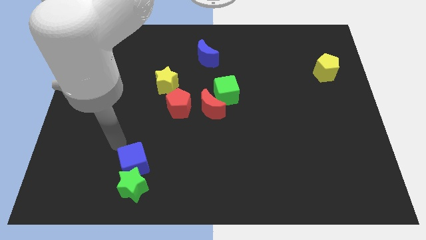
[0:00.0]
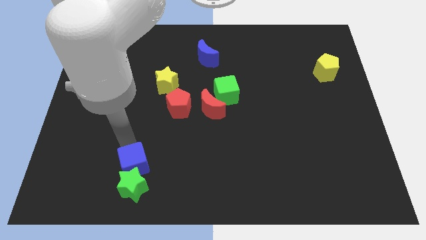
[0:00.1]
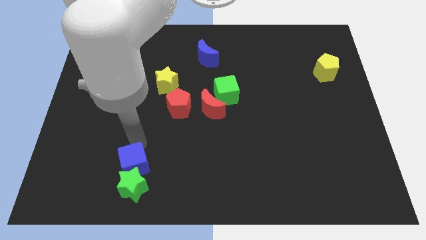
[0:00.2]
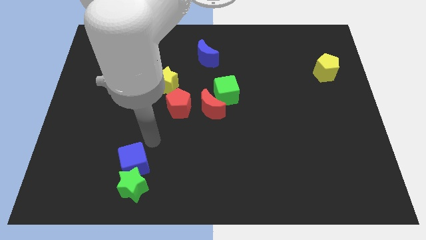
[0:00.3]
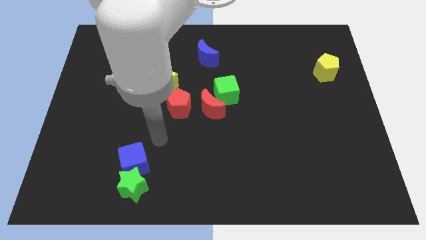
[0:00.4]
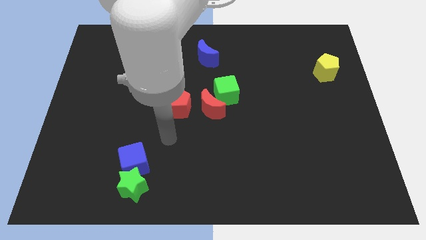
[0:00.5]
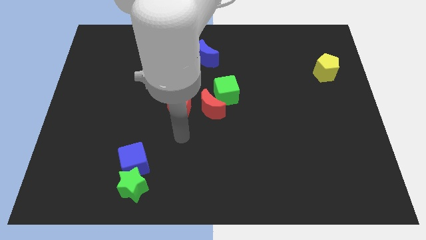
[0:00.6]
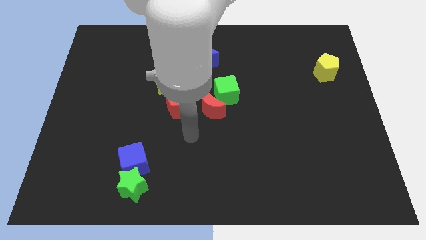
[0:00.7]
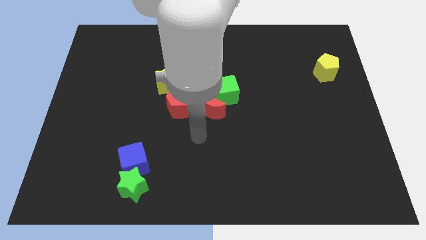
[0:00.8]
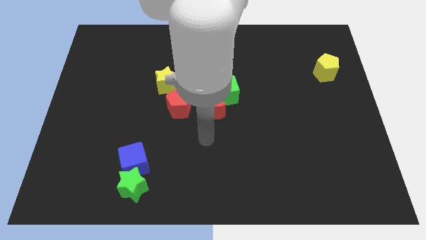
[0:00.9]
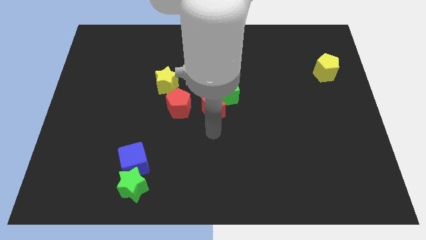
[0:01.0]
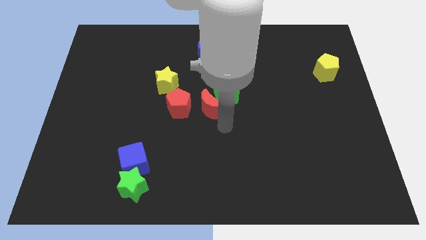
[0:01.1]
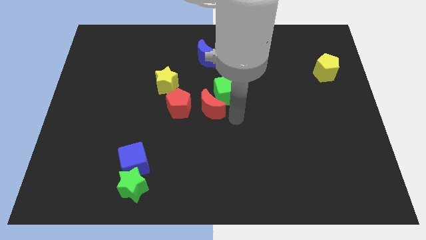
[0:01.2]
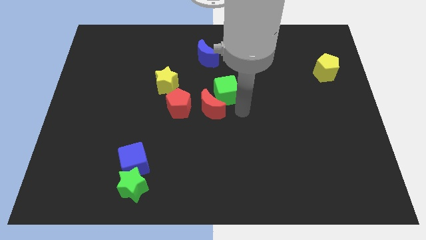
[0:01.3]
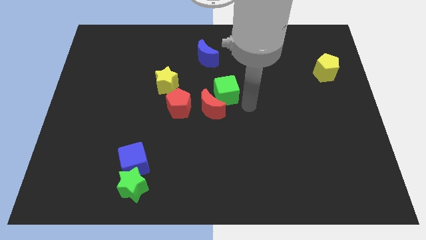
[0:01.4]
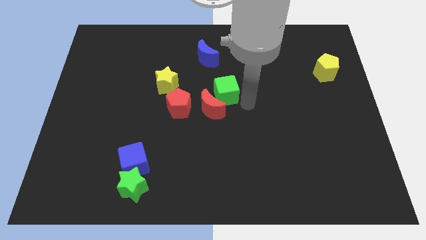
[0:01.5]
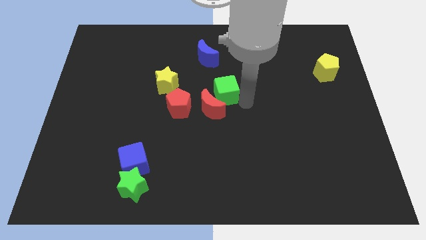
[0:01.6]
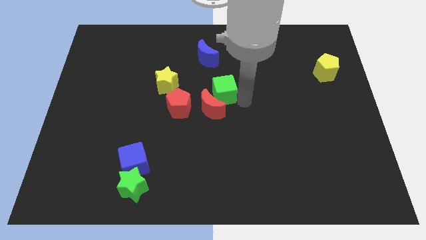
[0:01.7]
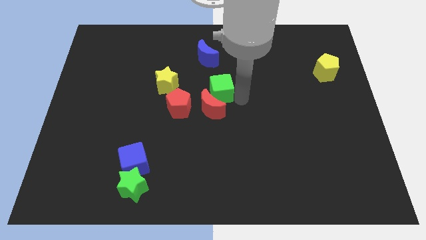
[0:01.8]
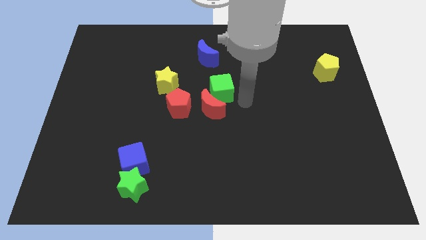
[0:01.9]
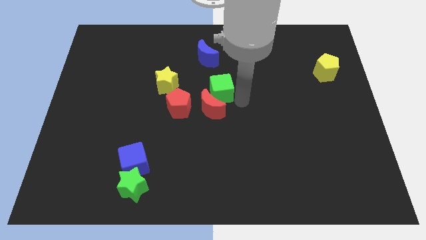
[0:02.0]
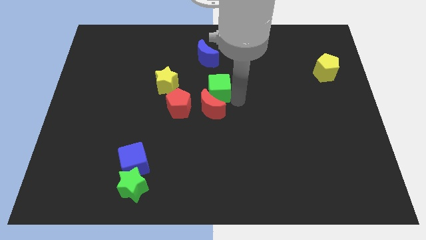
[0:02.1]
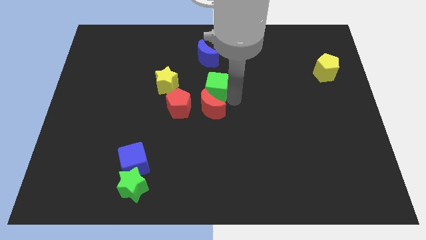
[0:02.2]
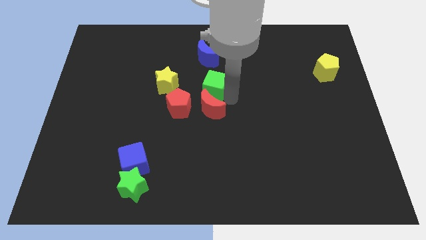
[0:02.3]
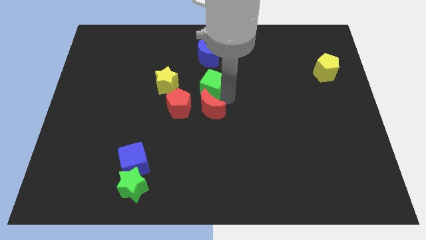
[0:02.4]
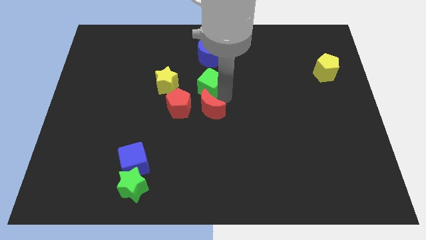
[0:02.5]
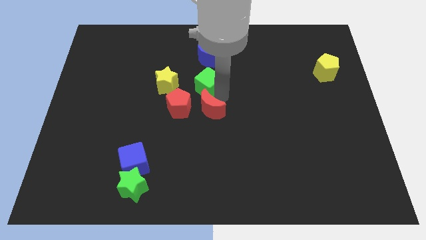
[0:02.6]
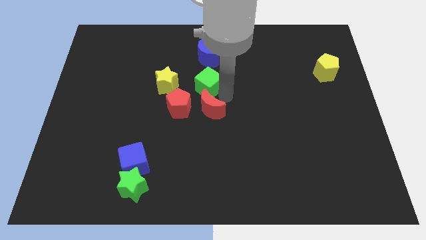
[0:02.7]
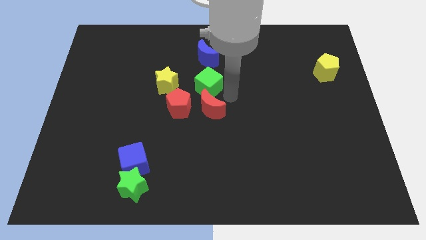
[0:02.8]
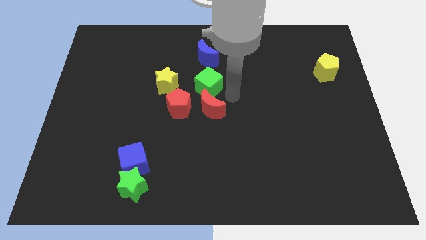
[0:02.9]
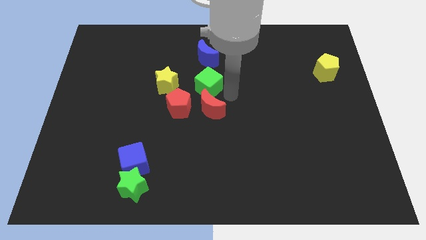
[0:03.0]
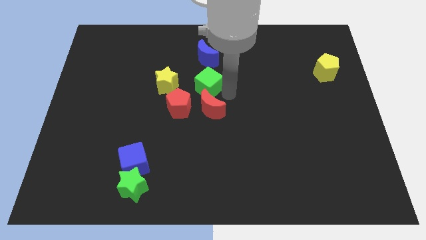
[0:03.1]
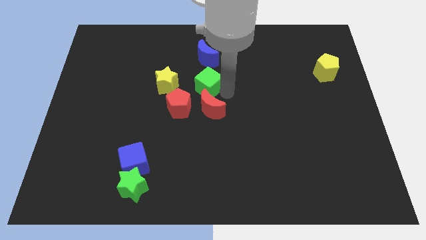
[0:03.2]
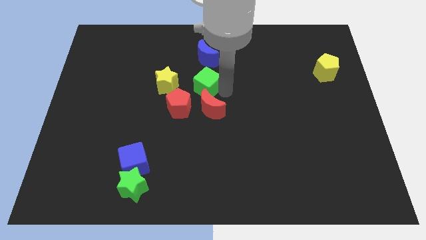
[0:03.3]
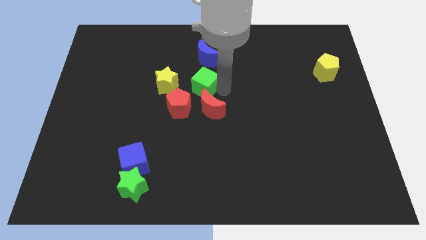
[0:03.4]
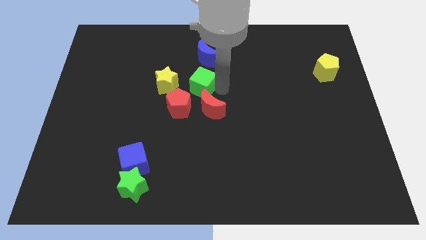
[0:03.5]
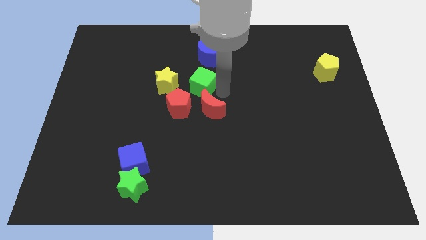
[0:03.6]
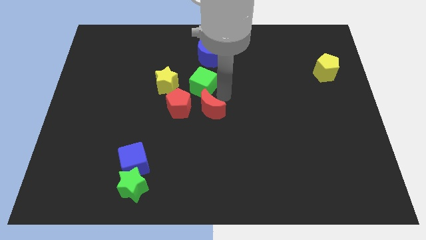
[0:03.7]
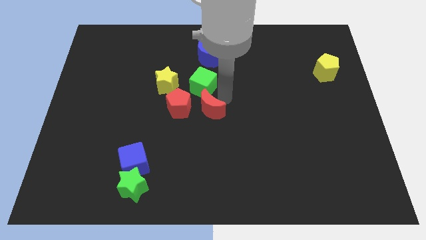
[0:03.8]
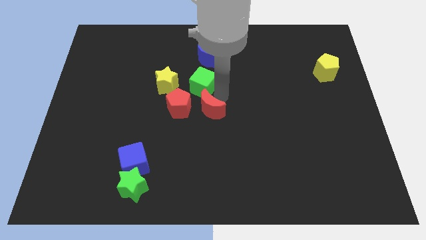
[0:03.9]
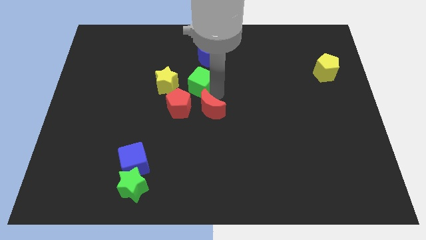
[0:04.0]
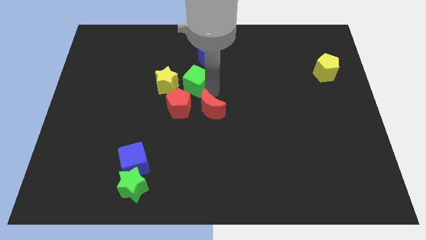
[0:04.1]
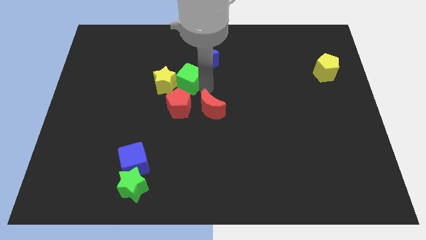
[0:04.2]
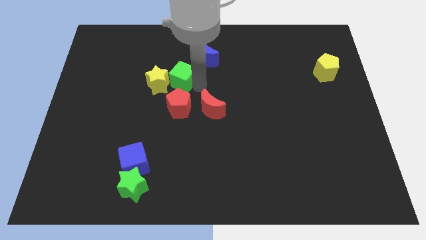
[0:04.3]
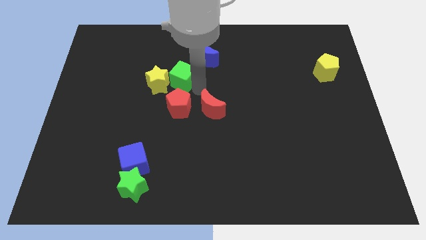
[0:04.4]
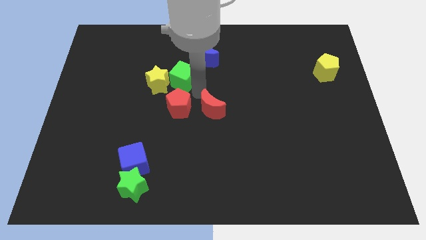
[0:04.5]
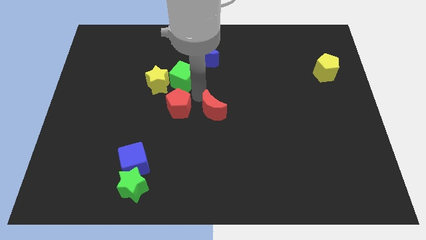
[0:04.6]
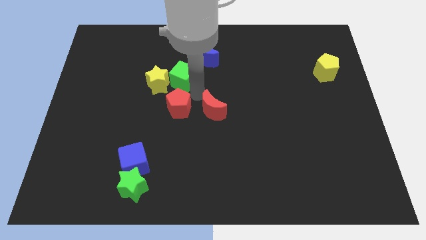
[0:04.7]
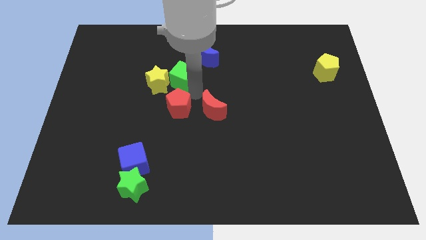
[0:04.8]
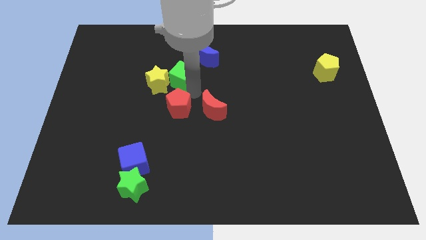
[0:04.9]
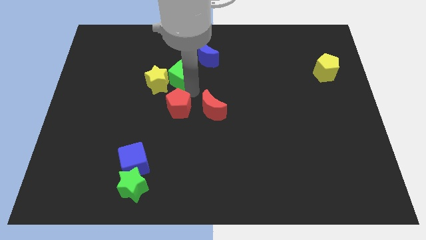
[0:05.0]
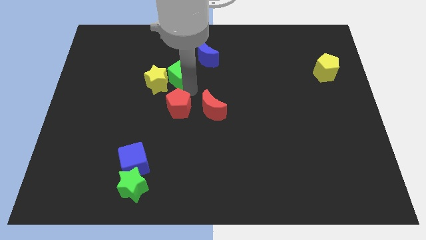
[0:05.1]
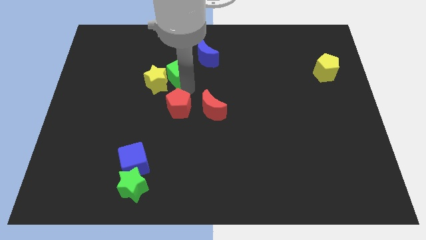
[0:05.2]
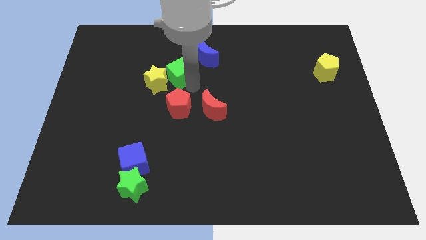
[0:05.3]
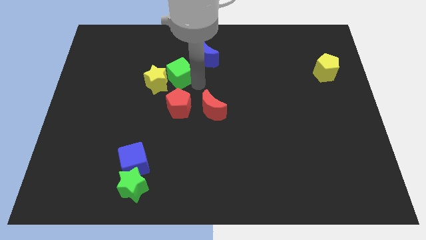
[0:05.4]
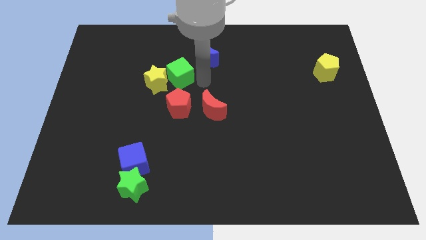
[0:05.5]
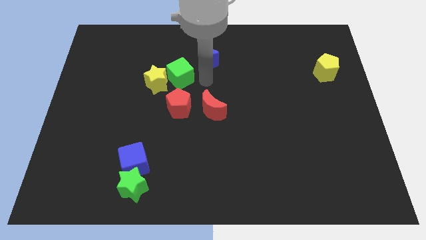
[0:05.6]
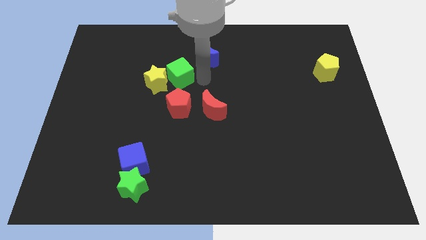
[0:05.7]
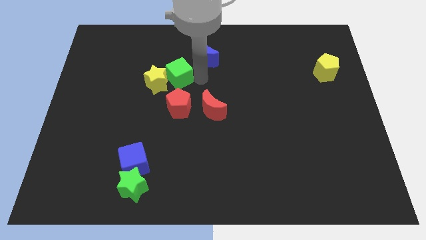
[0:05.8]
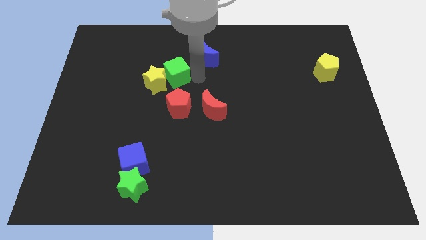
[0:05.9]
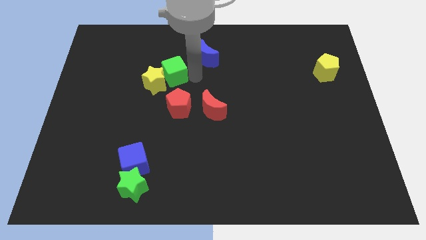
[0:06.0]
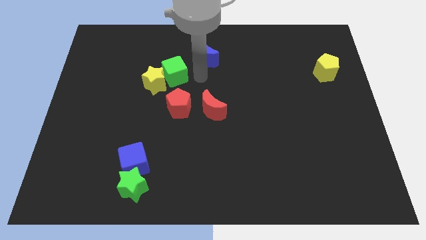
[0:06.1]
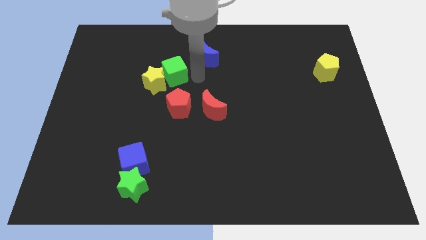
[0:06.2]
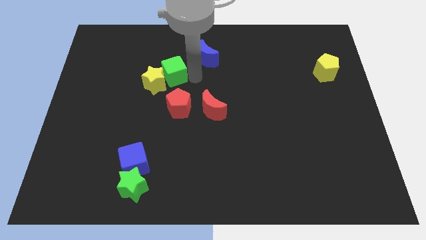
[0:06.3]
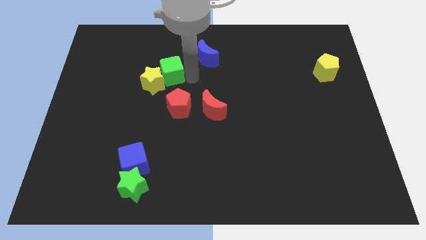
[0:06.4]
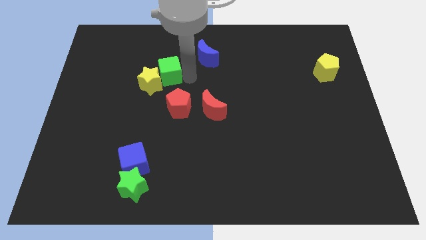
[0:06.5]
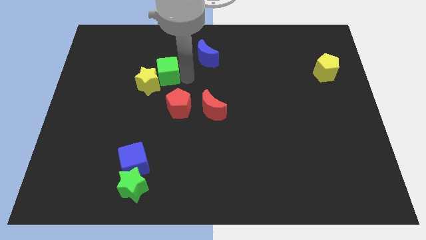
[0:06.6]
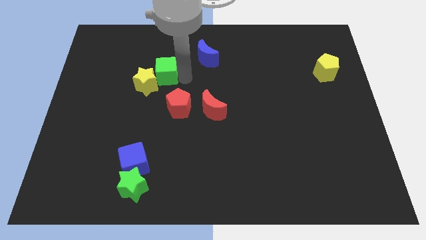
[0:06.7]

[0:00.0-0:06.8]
put the green cube diagonally up and to the left of the red pentagon

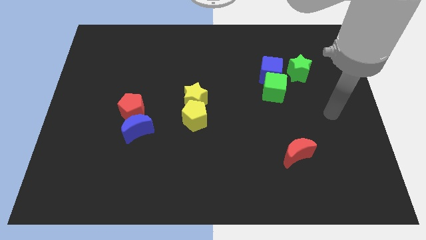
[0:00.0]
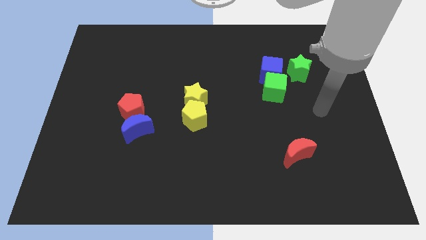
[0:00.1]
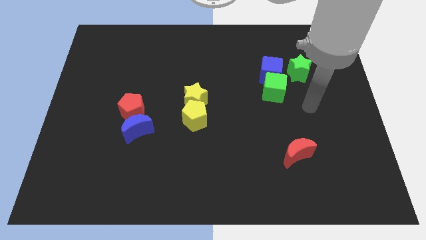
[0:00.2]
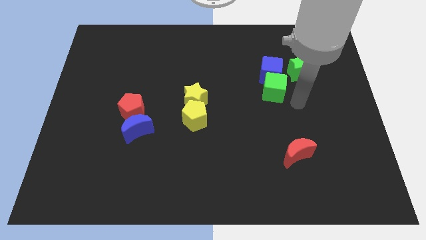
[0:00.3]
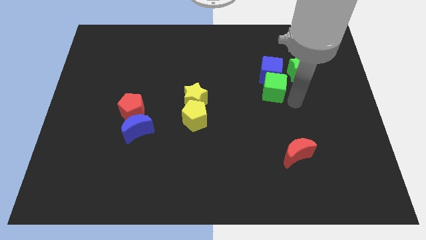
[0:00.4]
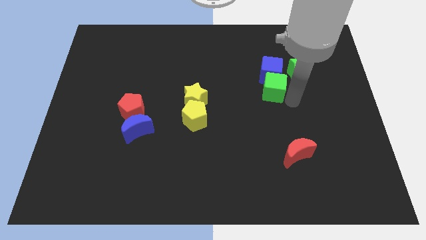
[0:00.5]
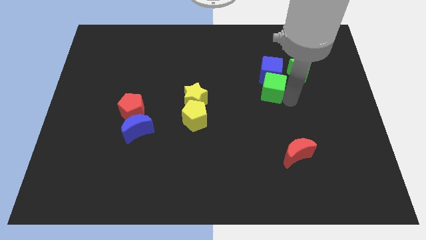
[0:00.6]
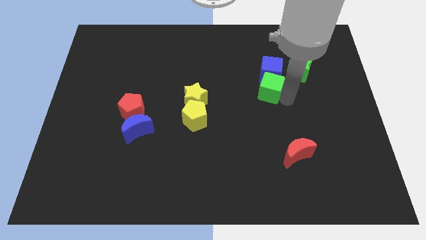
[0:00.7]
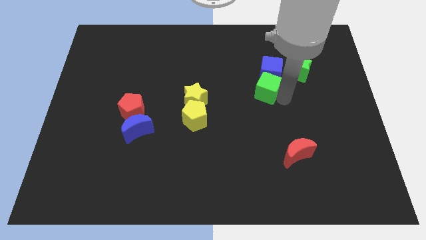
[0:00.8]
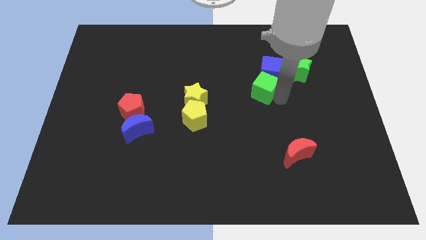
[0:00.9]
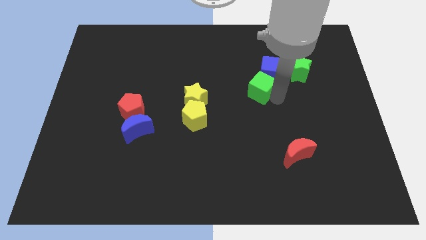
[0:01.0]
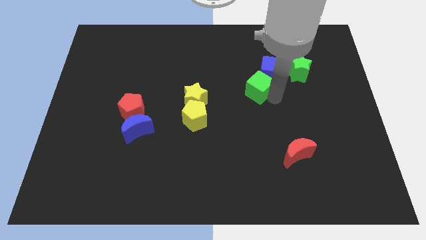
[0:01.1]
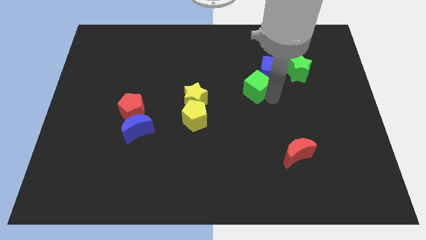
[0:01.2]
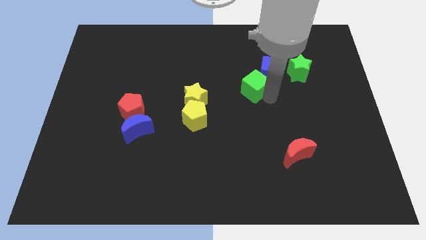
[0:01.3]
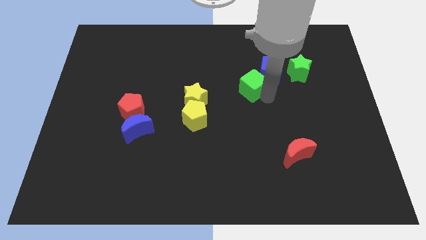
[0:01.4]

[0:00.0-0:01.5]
move the green cube just left of the blue cube
